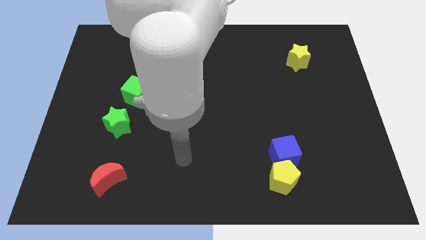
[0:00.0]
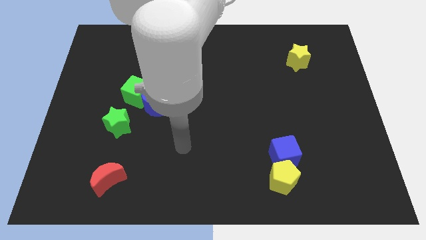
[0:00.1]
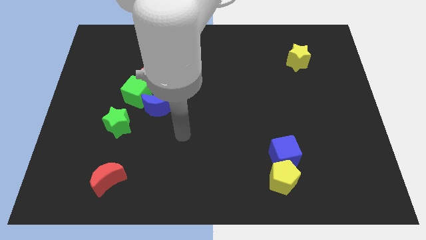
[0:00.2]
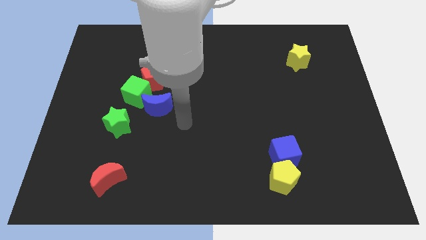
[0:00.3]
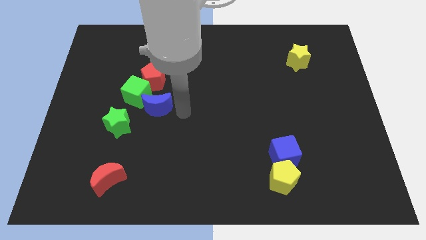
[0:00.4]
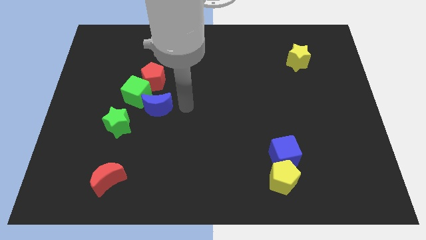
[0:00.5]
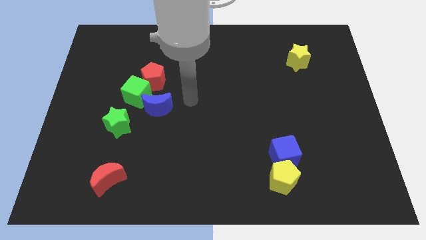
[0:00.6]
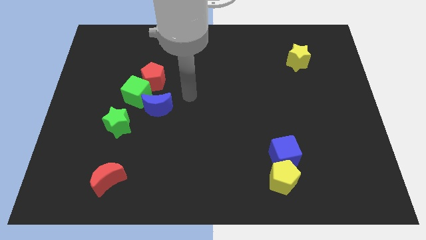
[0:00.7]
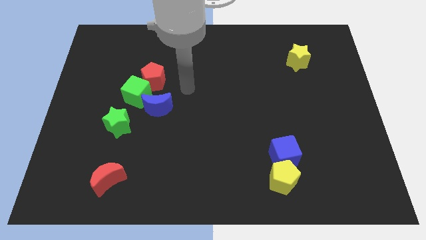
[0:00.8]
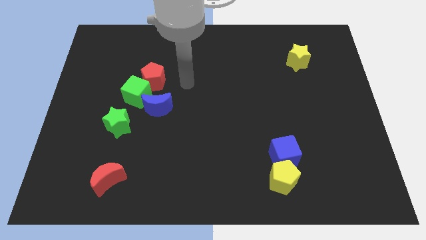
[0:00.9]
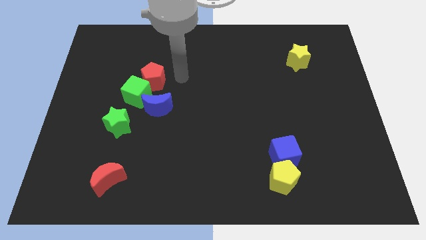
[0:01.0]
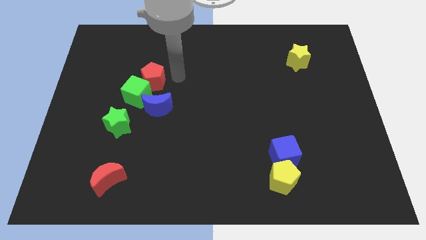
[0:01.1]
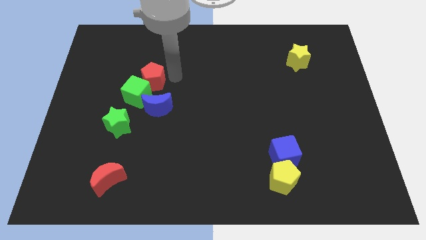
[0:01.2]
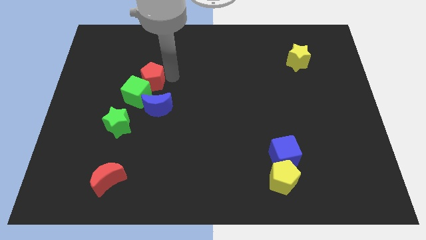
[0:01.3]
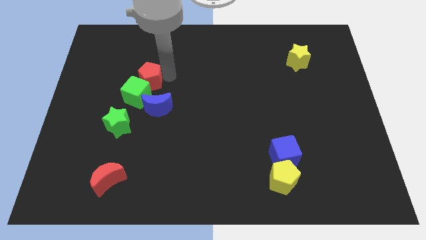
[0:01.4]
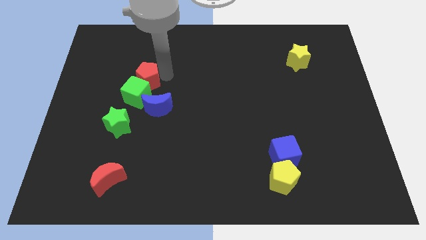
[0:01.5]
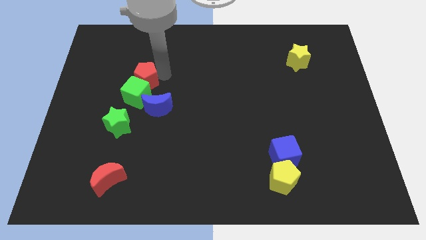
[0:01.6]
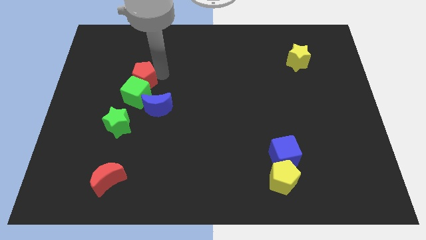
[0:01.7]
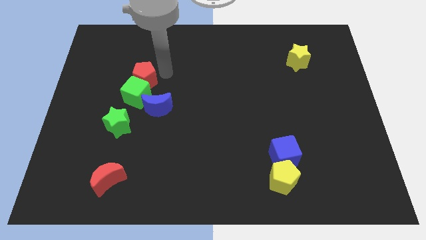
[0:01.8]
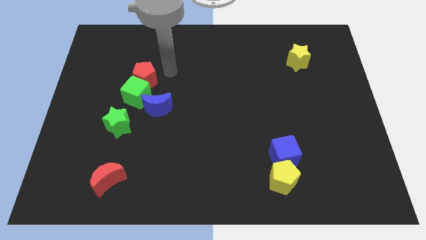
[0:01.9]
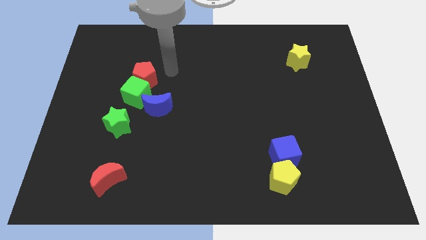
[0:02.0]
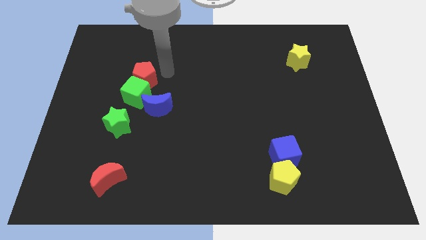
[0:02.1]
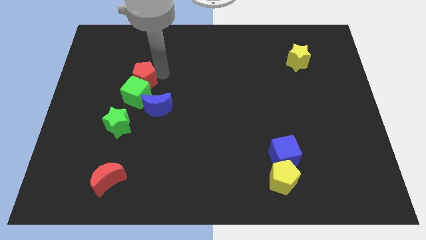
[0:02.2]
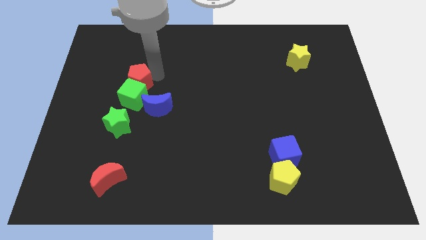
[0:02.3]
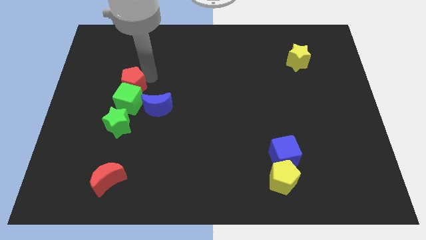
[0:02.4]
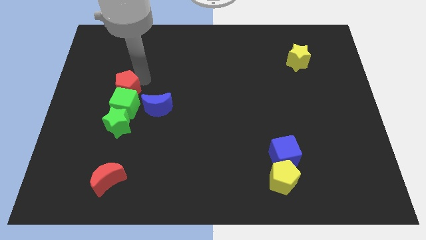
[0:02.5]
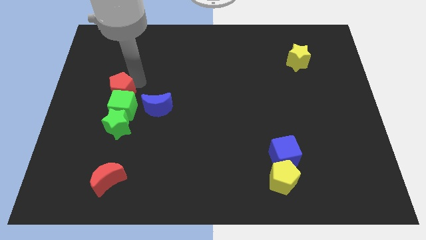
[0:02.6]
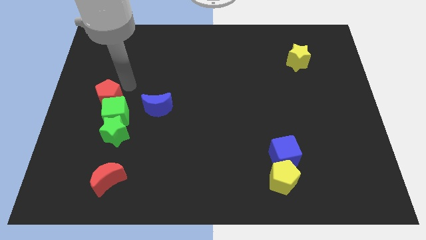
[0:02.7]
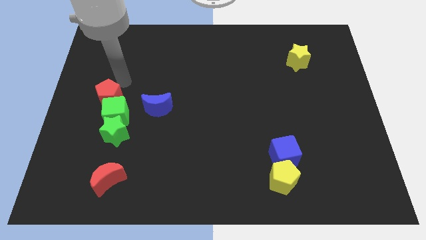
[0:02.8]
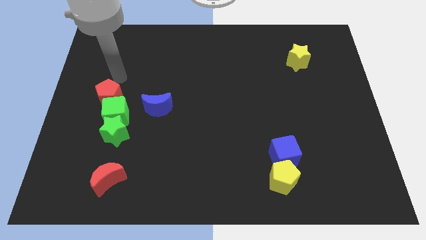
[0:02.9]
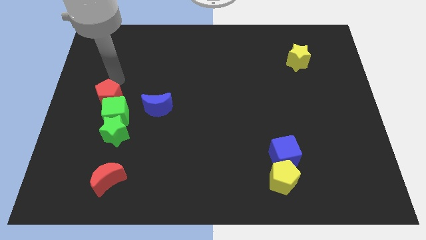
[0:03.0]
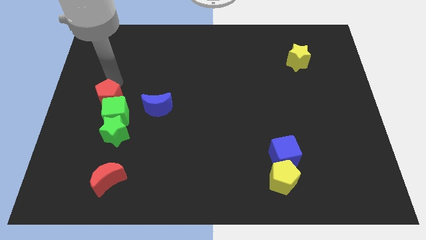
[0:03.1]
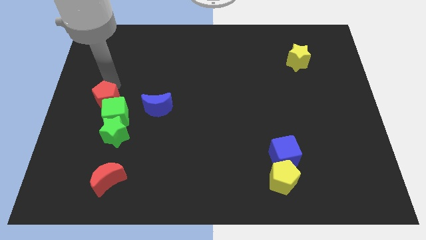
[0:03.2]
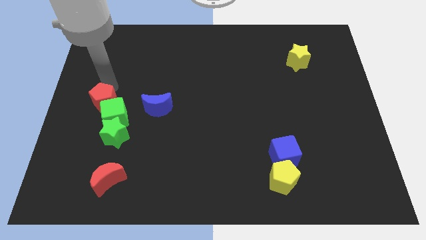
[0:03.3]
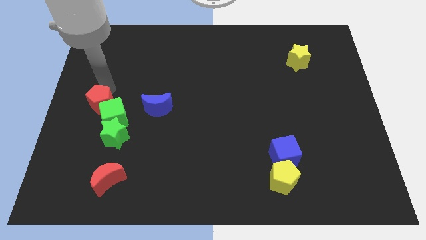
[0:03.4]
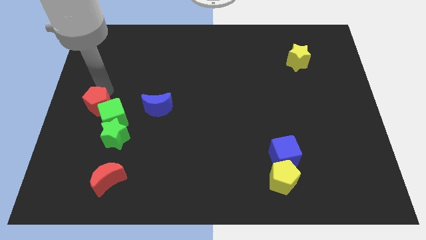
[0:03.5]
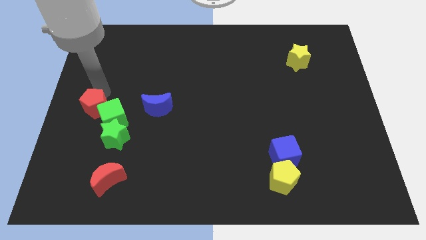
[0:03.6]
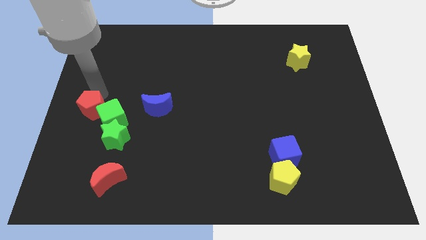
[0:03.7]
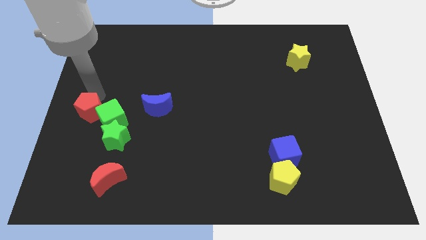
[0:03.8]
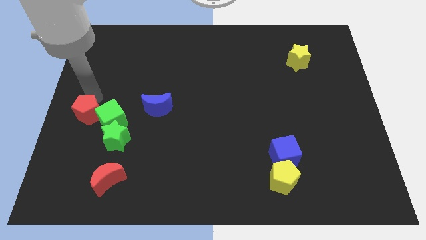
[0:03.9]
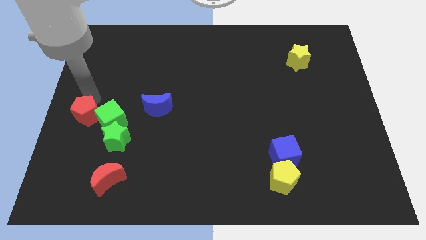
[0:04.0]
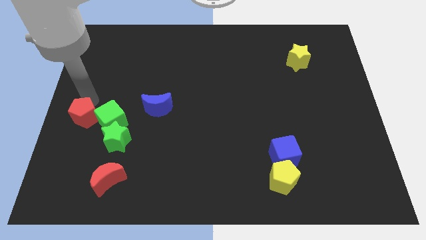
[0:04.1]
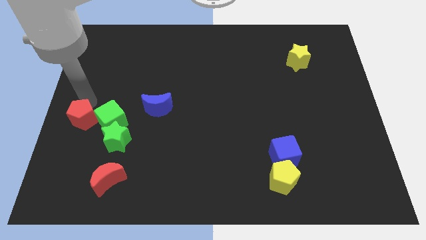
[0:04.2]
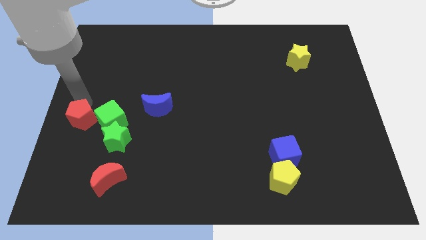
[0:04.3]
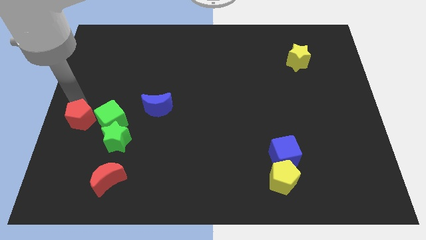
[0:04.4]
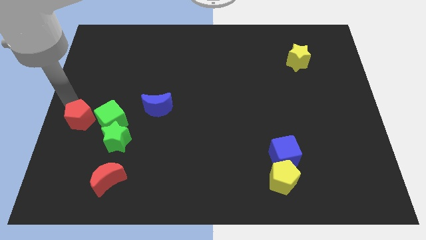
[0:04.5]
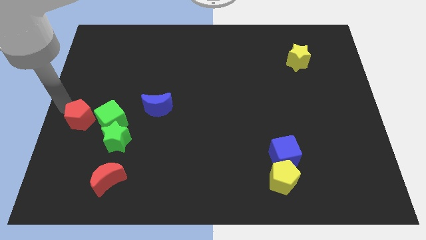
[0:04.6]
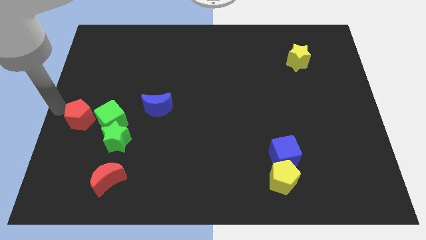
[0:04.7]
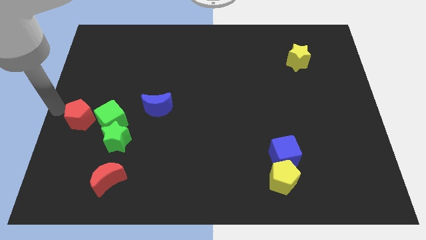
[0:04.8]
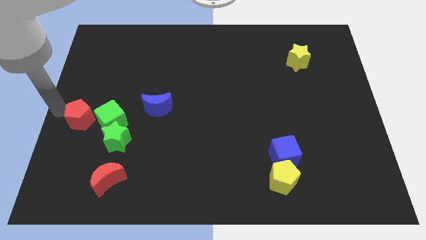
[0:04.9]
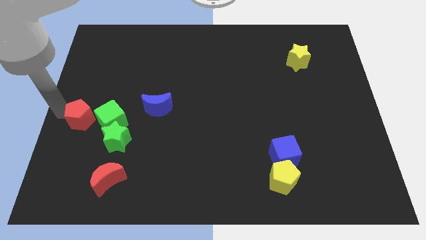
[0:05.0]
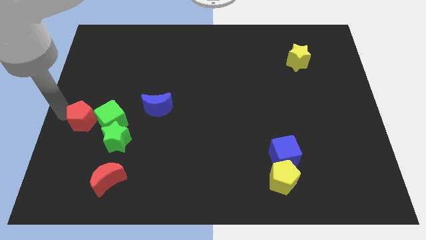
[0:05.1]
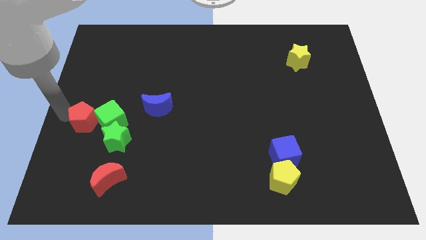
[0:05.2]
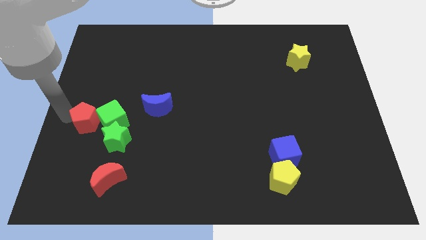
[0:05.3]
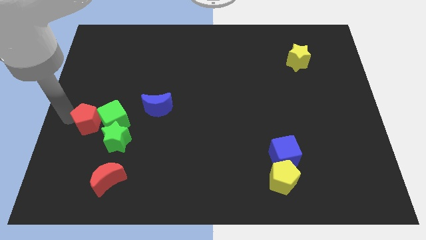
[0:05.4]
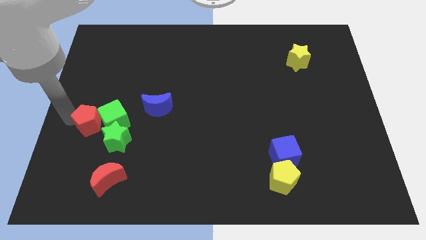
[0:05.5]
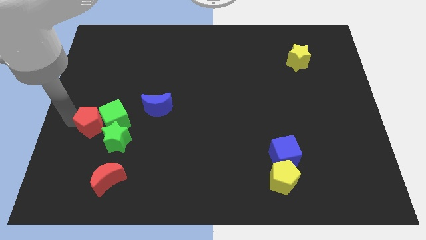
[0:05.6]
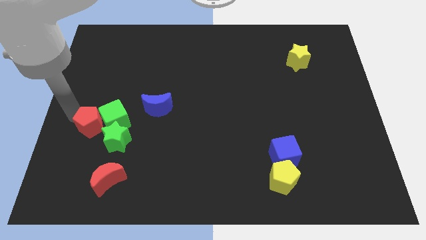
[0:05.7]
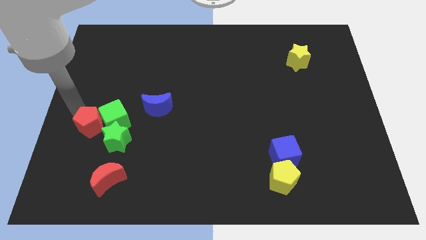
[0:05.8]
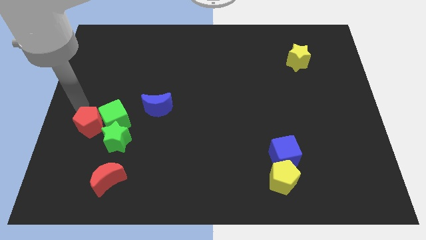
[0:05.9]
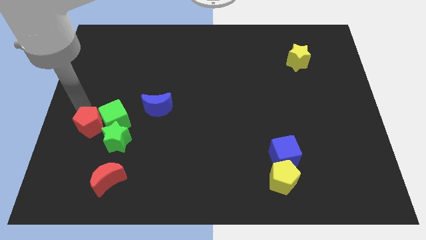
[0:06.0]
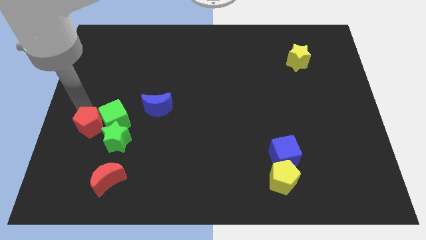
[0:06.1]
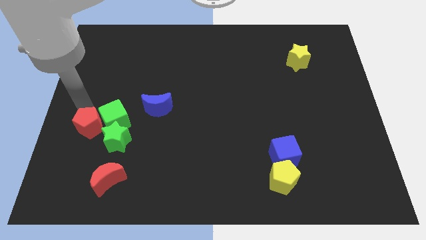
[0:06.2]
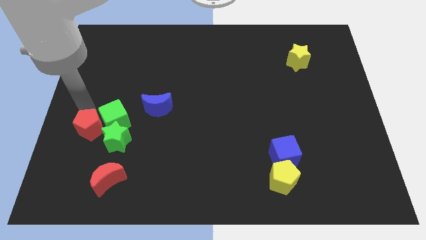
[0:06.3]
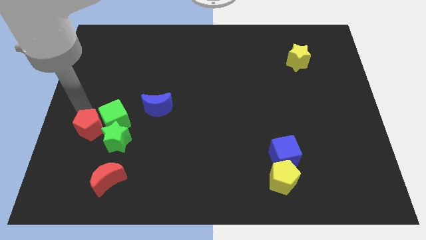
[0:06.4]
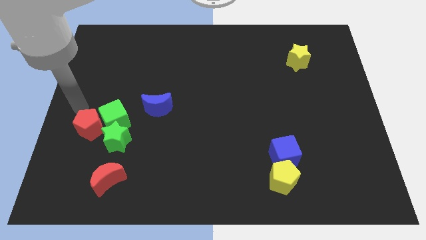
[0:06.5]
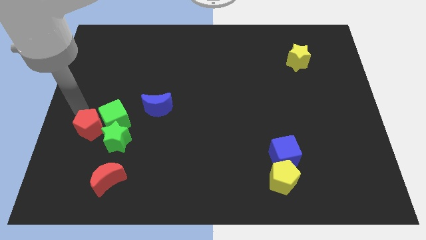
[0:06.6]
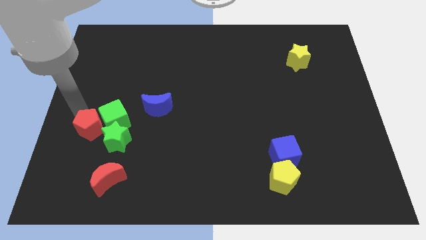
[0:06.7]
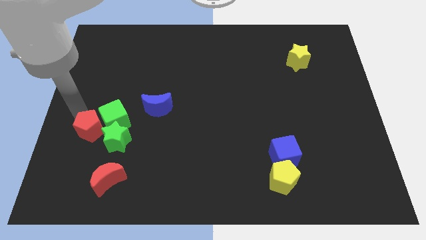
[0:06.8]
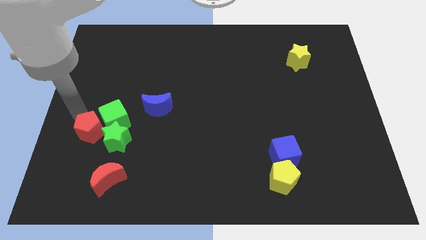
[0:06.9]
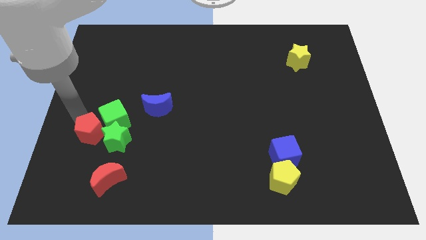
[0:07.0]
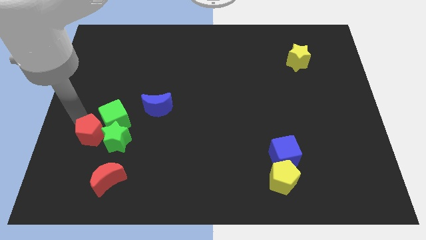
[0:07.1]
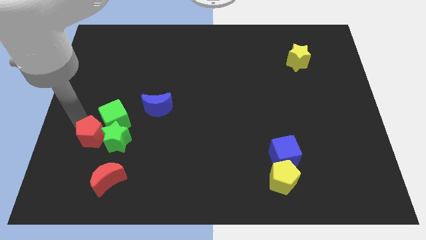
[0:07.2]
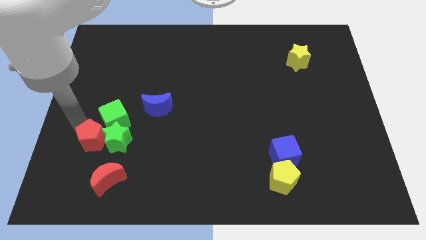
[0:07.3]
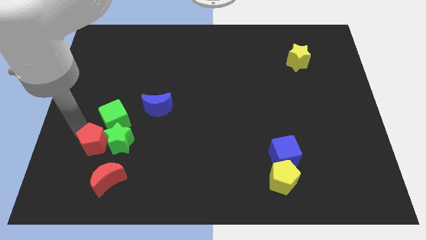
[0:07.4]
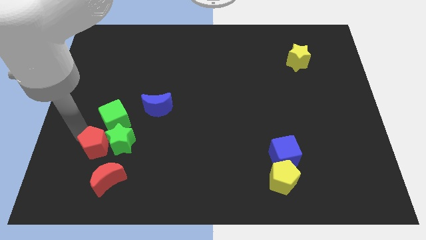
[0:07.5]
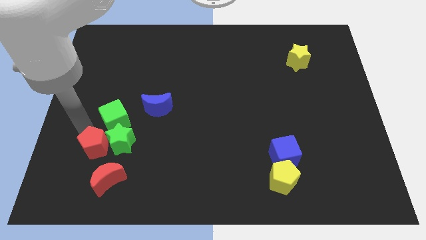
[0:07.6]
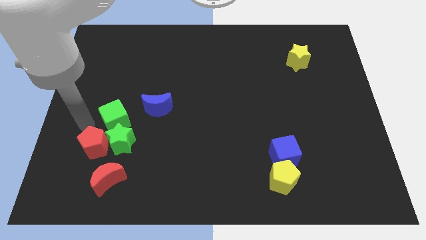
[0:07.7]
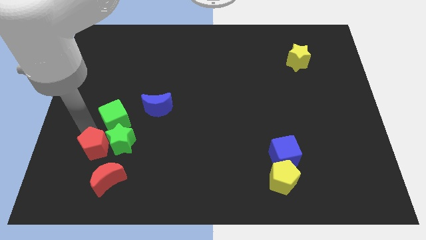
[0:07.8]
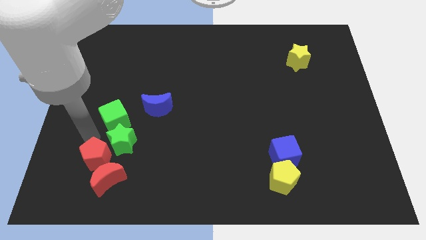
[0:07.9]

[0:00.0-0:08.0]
push the red pentagon close to the red moon
